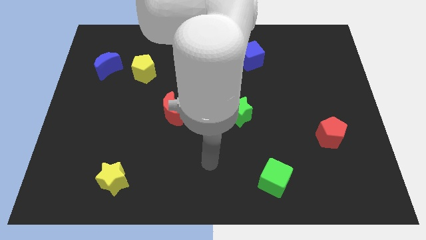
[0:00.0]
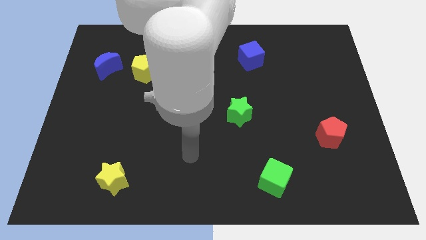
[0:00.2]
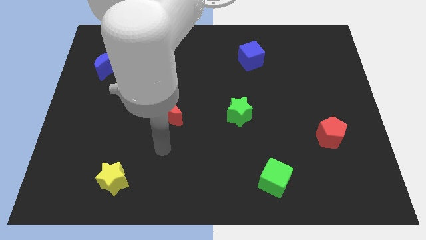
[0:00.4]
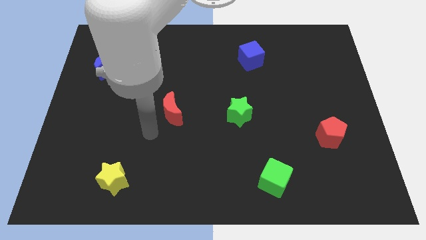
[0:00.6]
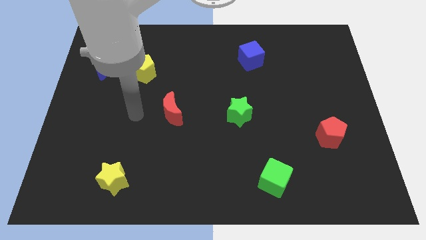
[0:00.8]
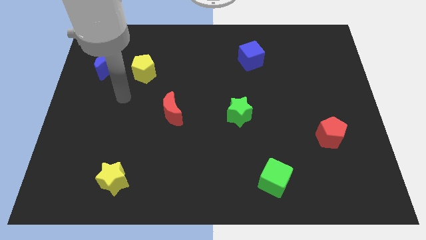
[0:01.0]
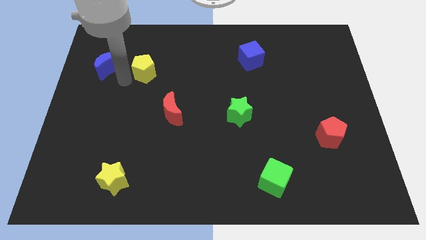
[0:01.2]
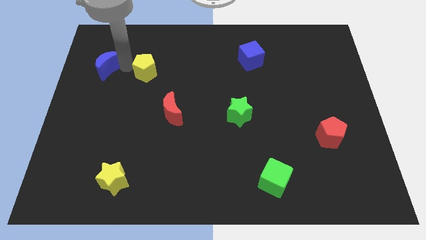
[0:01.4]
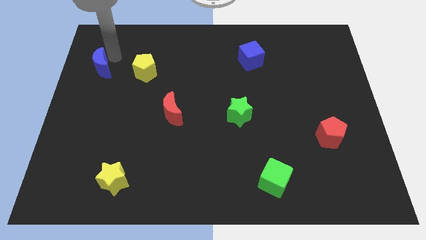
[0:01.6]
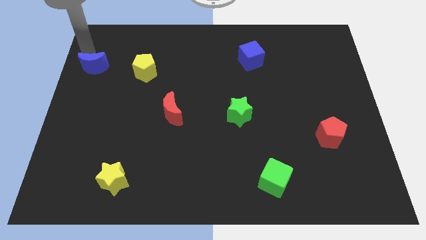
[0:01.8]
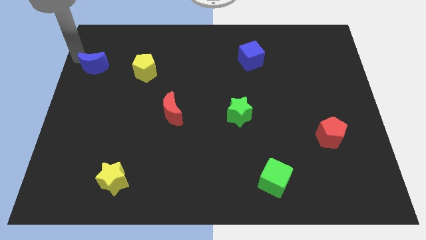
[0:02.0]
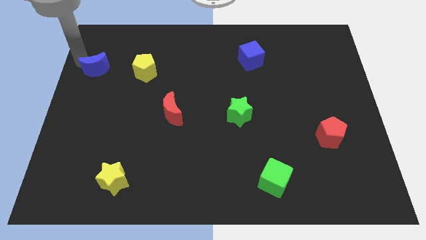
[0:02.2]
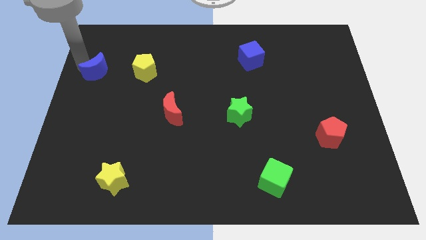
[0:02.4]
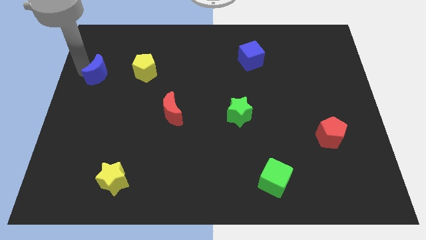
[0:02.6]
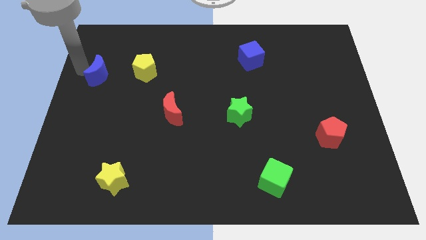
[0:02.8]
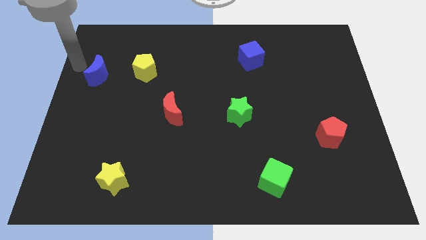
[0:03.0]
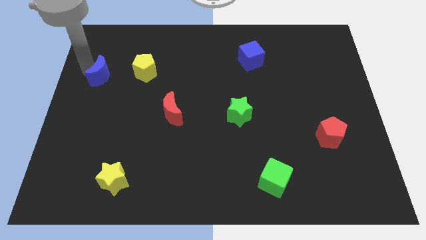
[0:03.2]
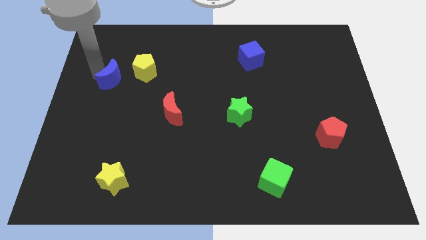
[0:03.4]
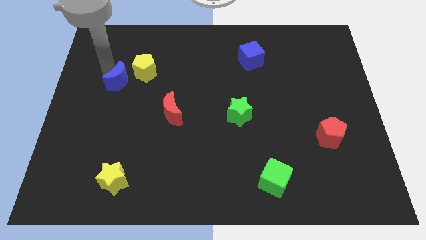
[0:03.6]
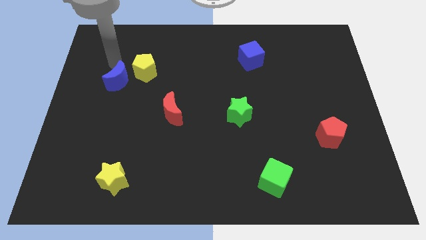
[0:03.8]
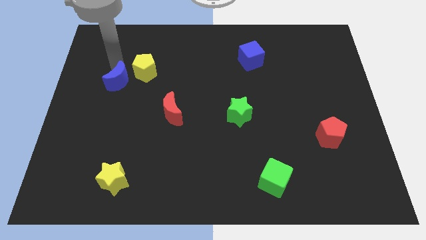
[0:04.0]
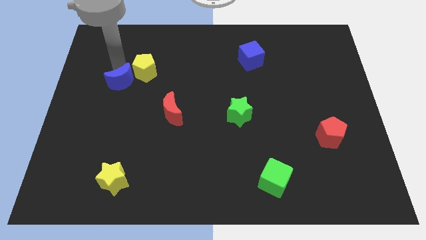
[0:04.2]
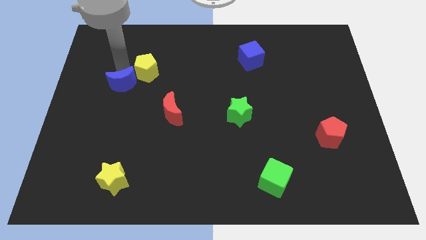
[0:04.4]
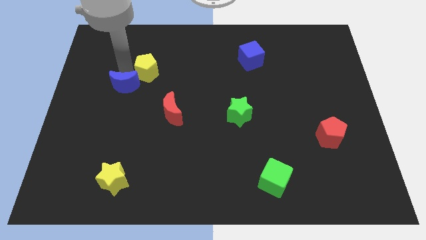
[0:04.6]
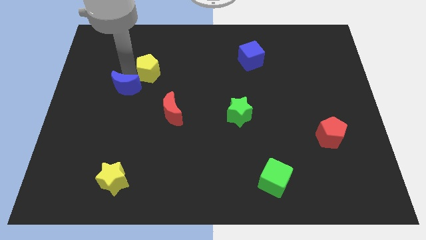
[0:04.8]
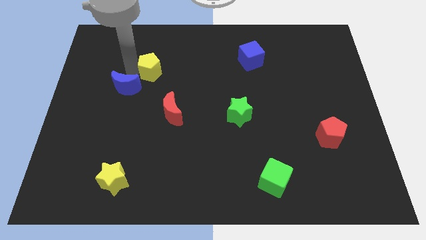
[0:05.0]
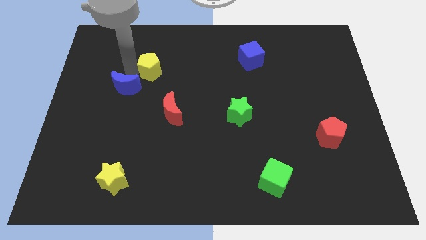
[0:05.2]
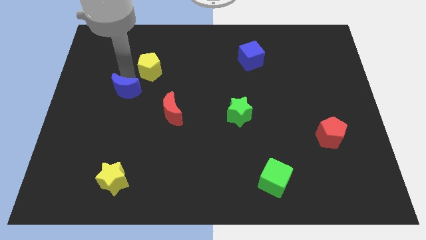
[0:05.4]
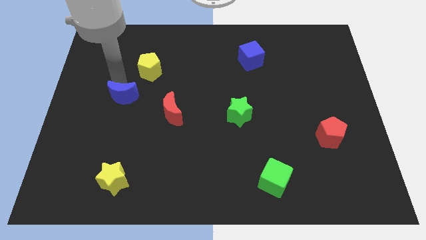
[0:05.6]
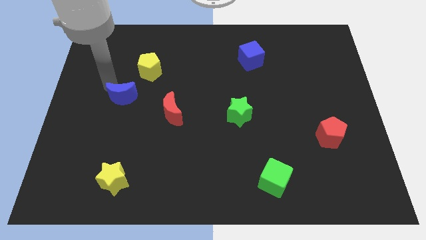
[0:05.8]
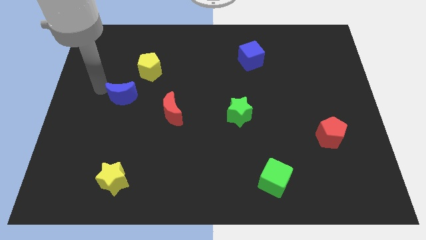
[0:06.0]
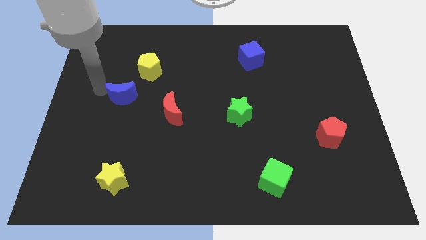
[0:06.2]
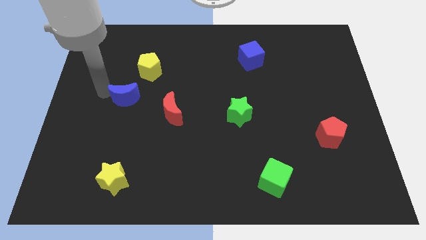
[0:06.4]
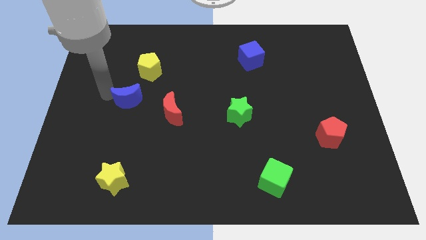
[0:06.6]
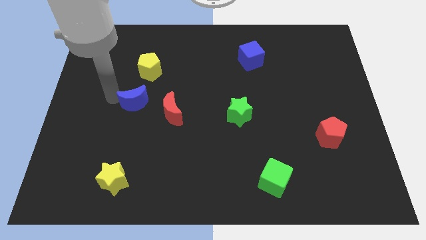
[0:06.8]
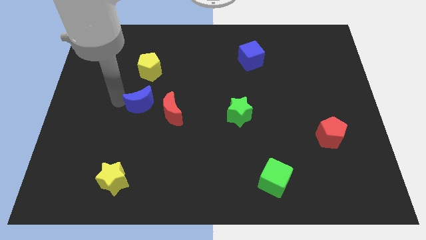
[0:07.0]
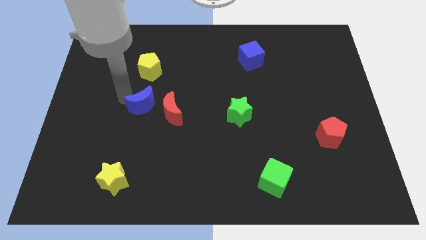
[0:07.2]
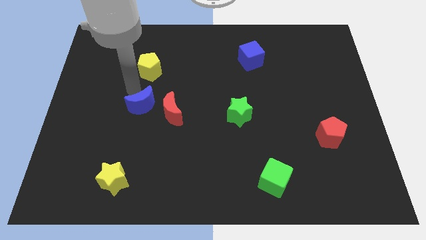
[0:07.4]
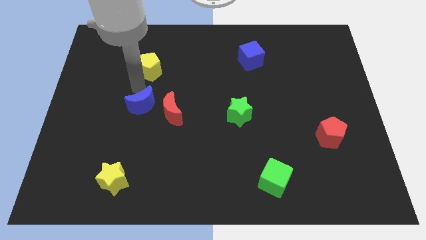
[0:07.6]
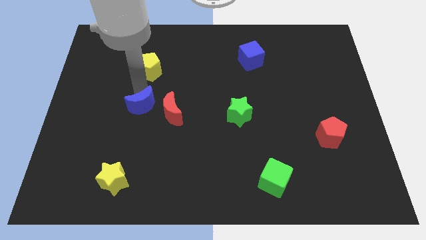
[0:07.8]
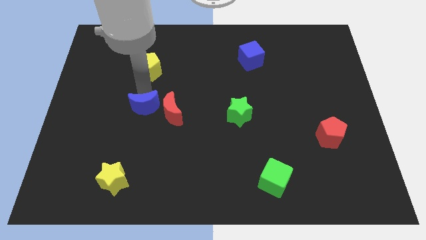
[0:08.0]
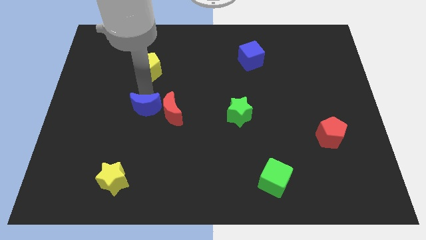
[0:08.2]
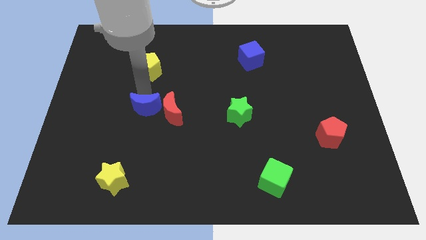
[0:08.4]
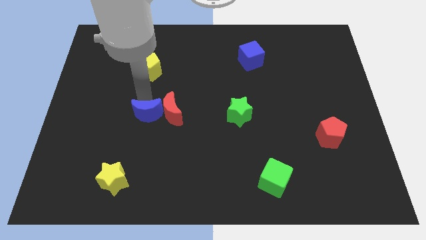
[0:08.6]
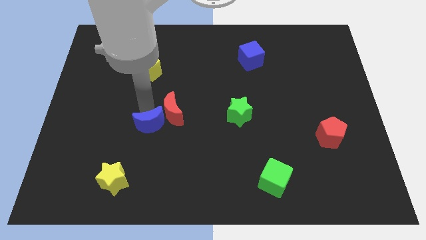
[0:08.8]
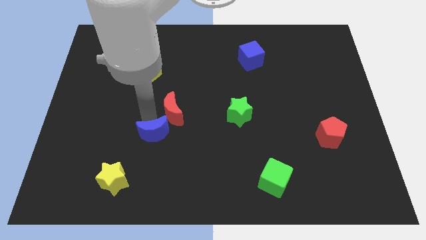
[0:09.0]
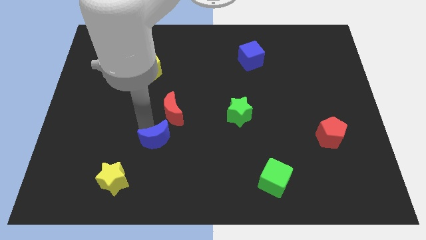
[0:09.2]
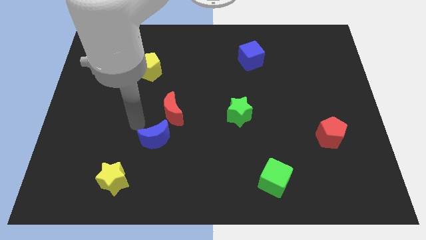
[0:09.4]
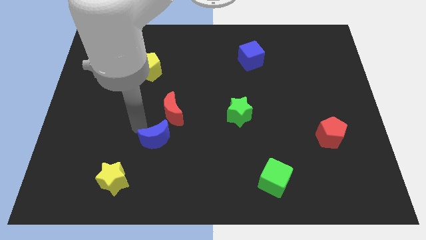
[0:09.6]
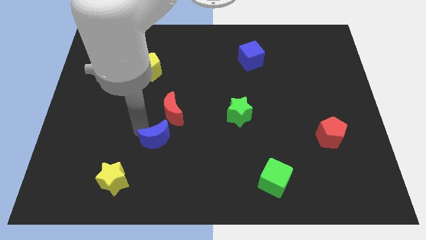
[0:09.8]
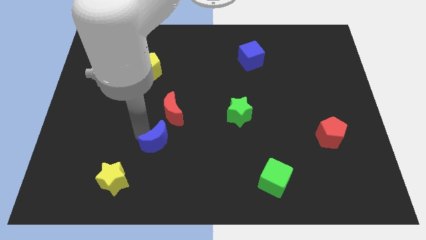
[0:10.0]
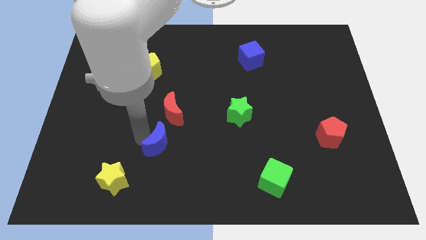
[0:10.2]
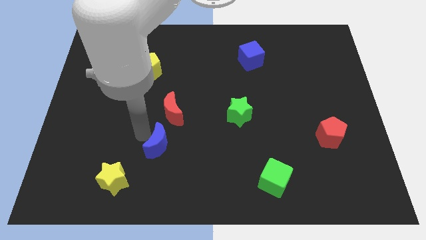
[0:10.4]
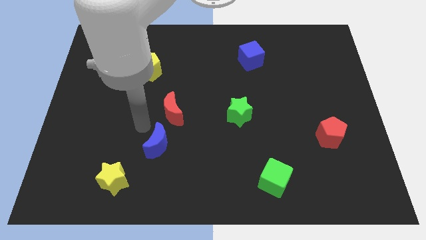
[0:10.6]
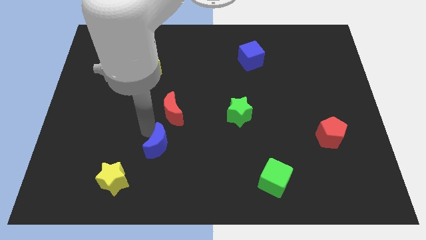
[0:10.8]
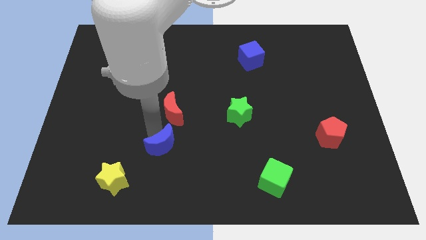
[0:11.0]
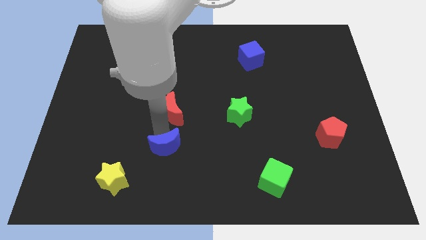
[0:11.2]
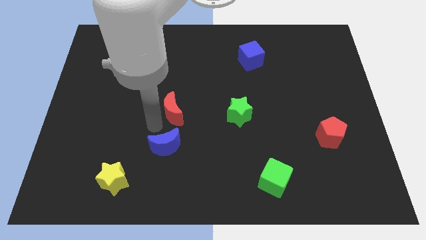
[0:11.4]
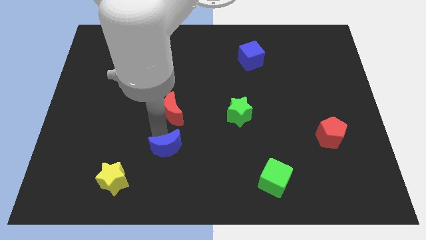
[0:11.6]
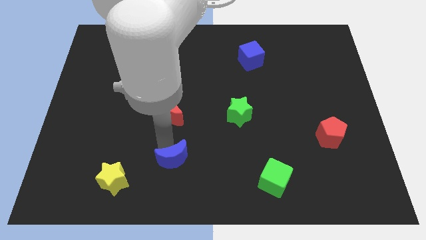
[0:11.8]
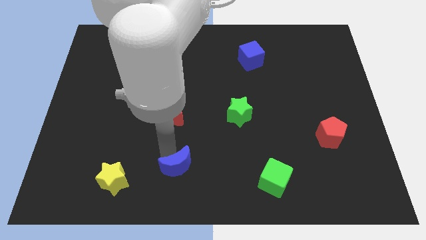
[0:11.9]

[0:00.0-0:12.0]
put the blue moon to the bottom side
